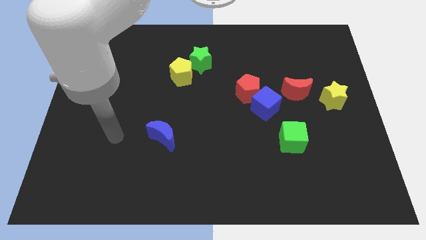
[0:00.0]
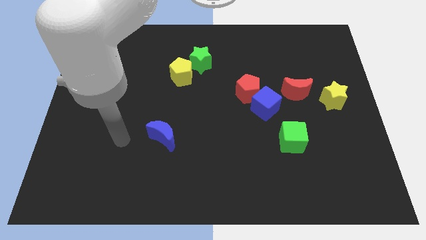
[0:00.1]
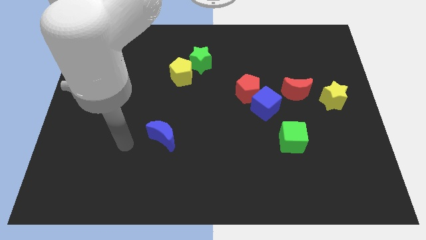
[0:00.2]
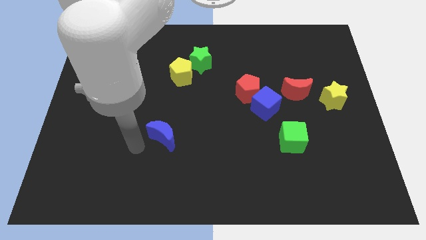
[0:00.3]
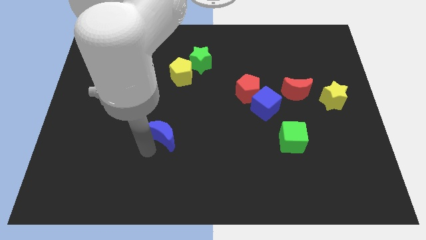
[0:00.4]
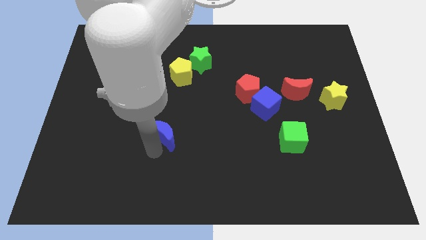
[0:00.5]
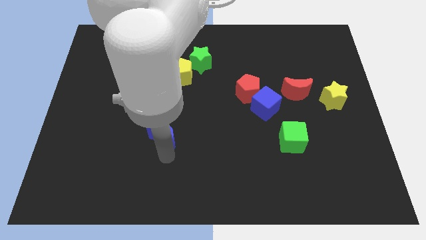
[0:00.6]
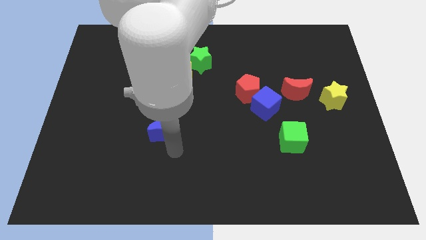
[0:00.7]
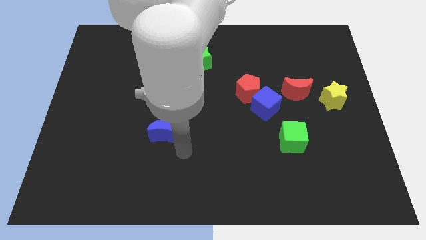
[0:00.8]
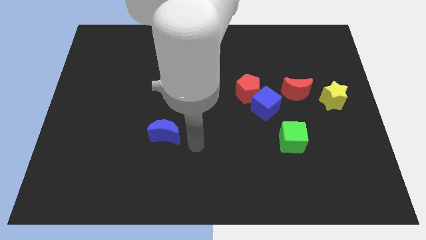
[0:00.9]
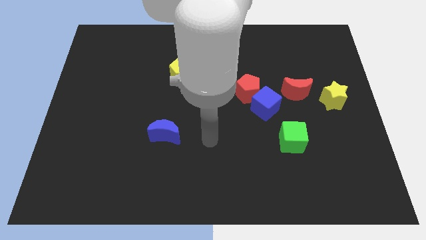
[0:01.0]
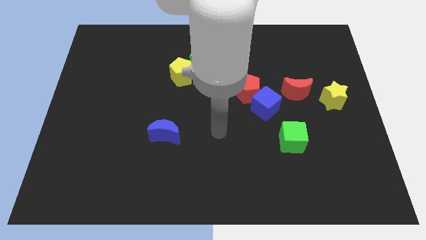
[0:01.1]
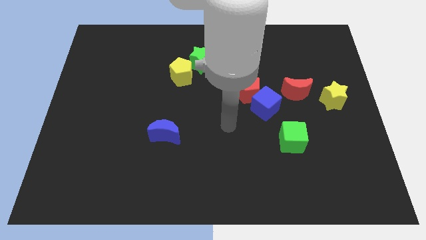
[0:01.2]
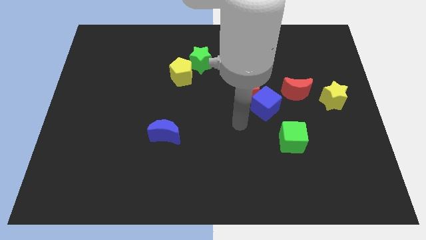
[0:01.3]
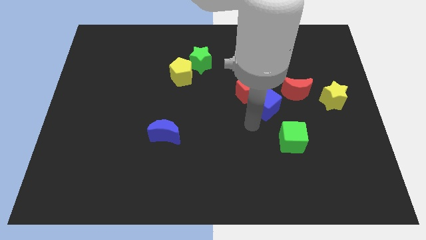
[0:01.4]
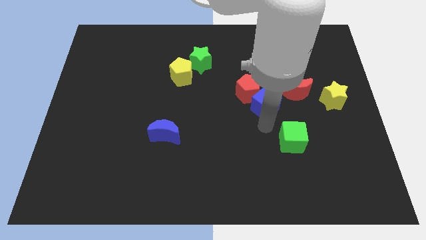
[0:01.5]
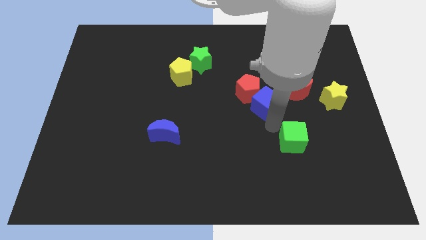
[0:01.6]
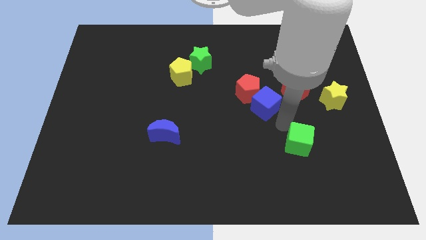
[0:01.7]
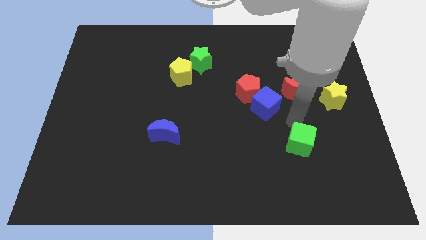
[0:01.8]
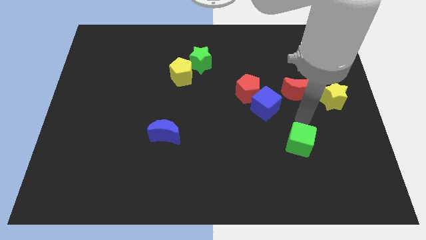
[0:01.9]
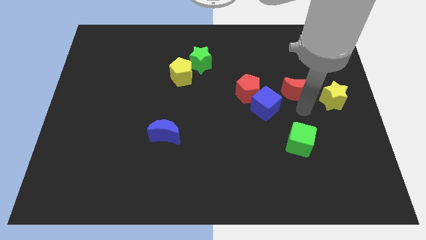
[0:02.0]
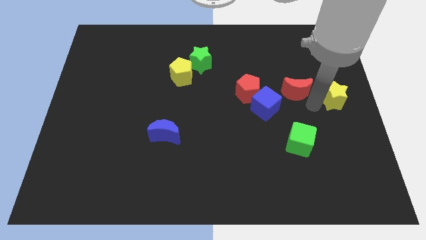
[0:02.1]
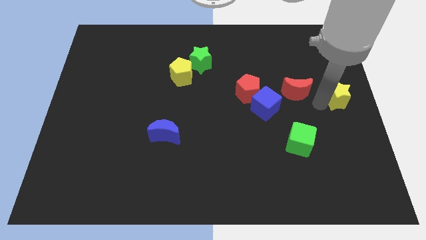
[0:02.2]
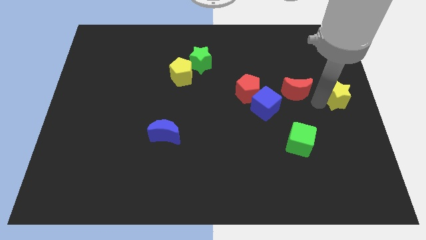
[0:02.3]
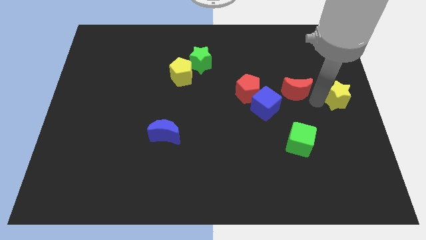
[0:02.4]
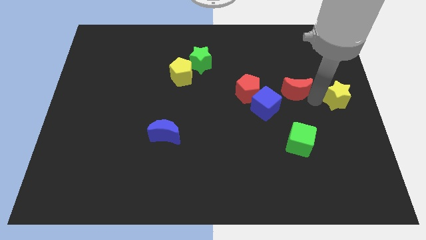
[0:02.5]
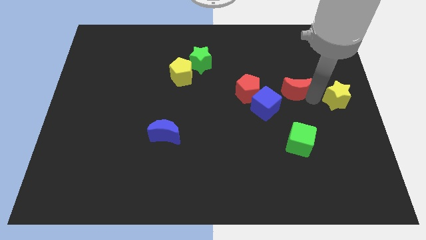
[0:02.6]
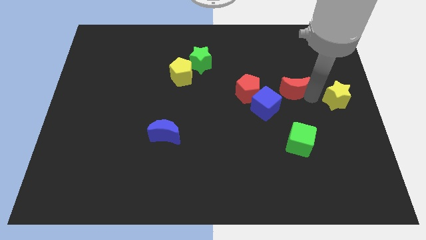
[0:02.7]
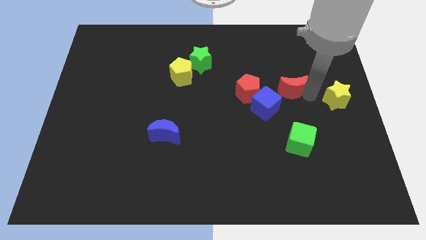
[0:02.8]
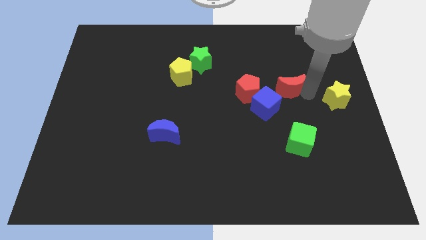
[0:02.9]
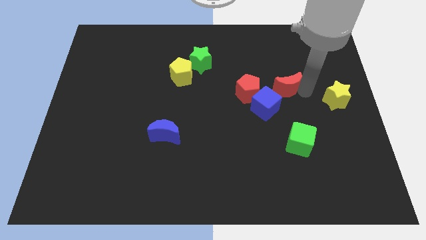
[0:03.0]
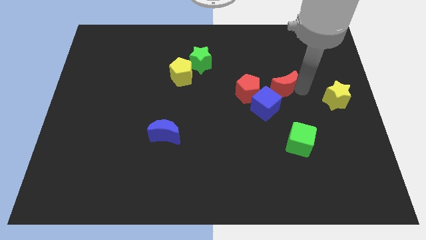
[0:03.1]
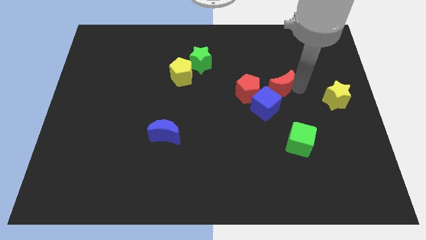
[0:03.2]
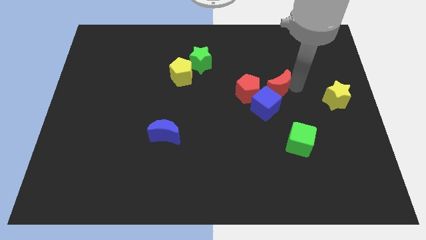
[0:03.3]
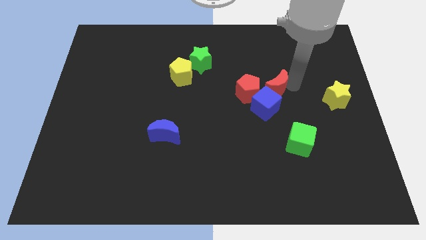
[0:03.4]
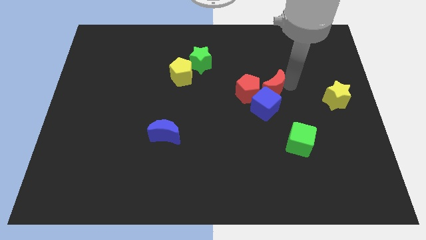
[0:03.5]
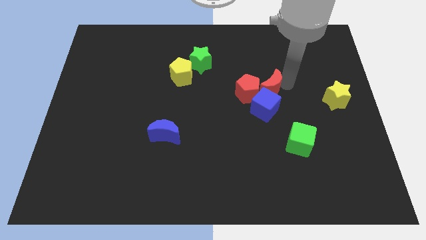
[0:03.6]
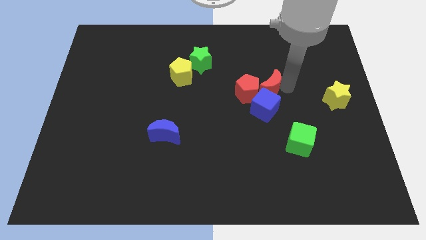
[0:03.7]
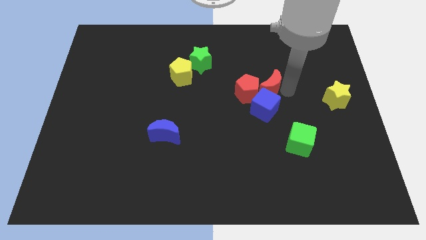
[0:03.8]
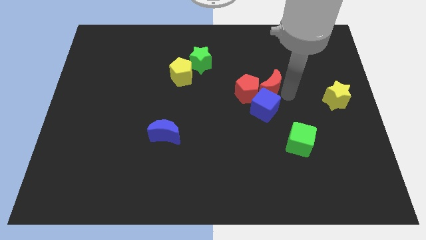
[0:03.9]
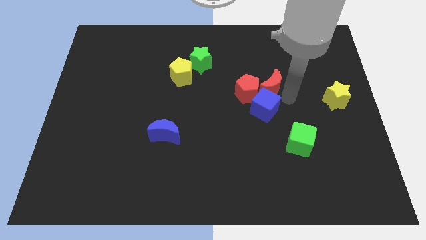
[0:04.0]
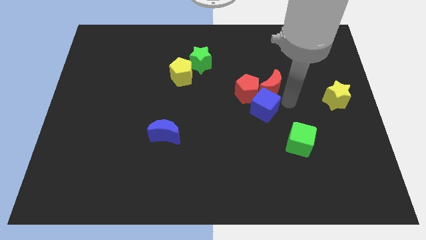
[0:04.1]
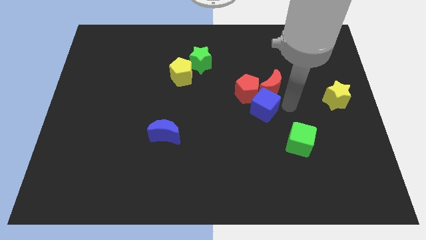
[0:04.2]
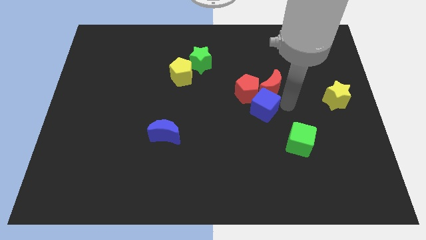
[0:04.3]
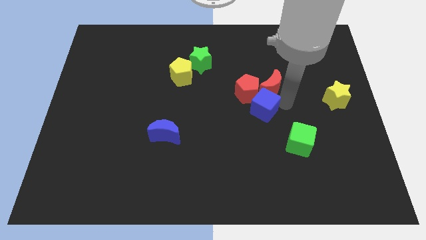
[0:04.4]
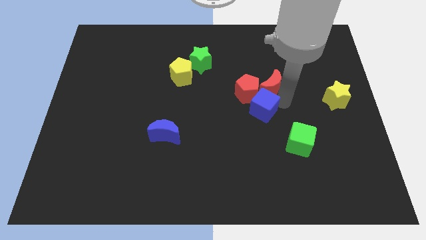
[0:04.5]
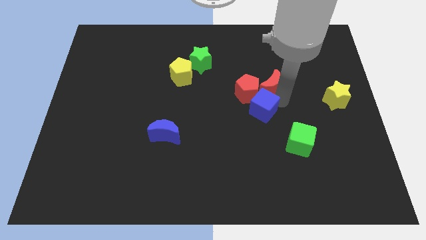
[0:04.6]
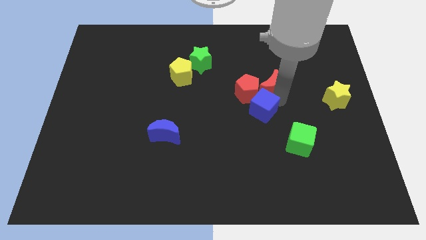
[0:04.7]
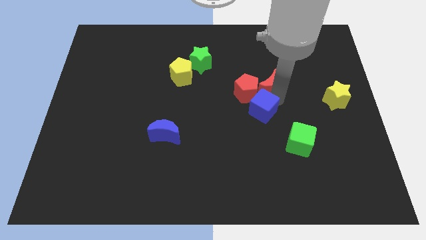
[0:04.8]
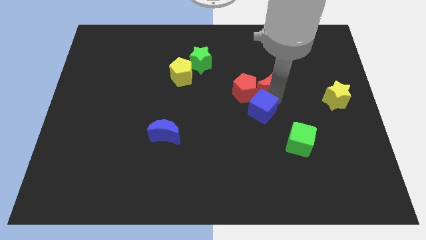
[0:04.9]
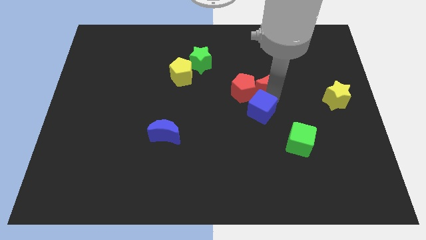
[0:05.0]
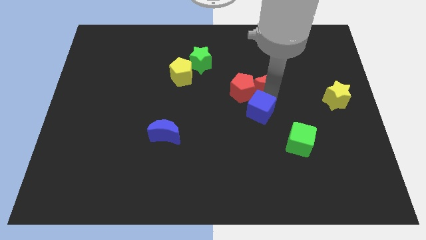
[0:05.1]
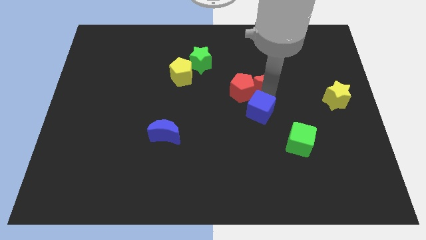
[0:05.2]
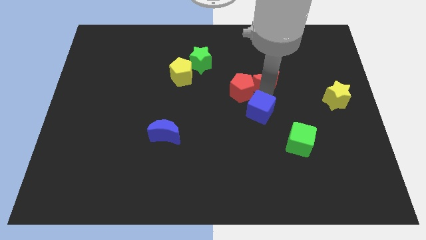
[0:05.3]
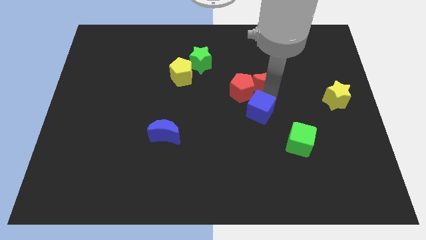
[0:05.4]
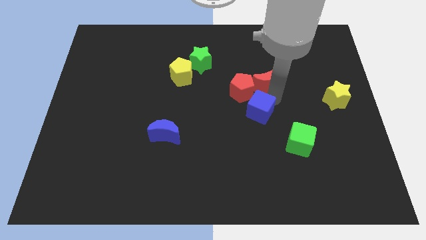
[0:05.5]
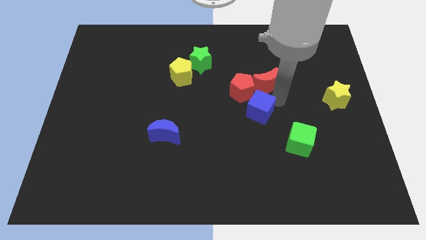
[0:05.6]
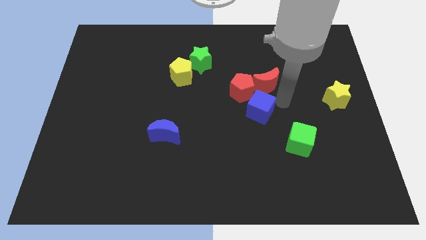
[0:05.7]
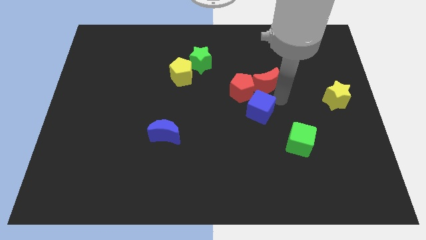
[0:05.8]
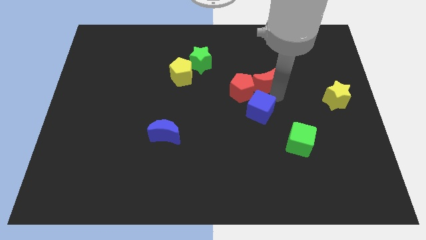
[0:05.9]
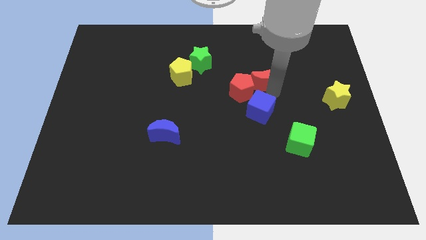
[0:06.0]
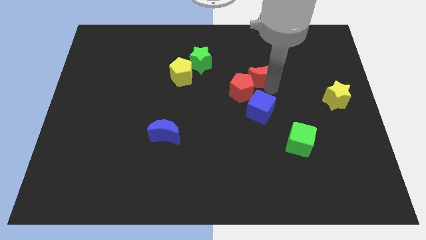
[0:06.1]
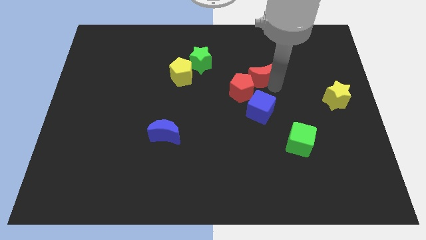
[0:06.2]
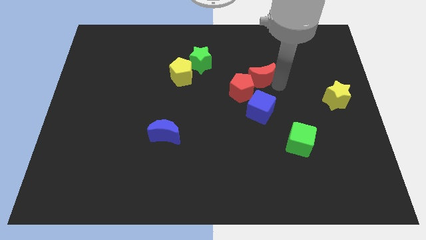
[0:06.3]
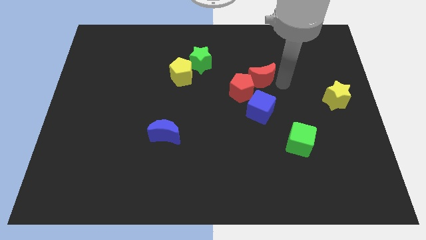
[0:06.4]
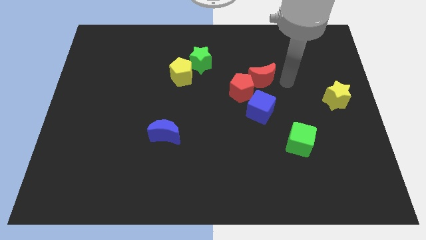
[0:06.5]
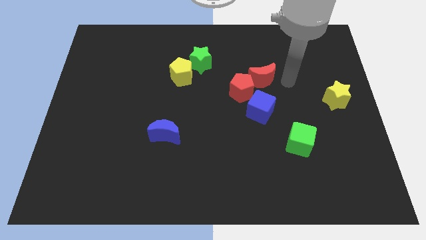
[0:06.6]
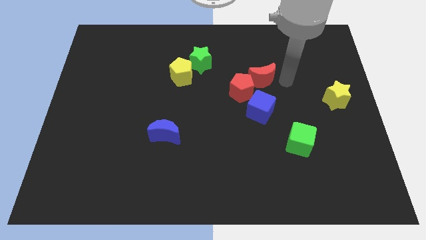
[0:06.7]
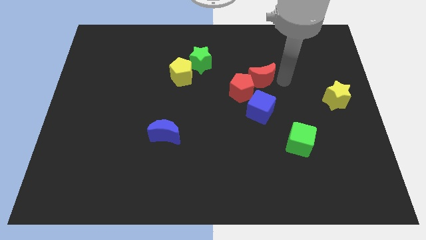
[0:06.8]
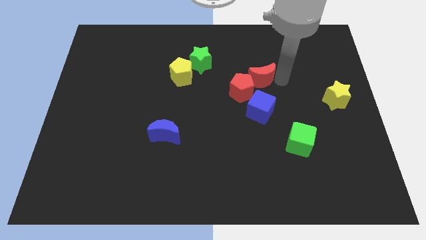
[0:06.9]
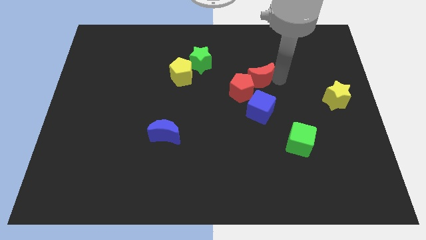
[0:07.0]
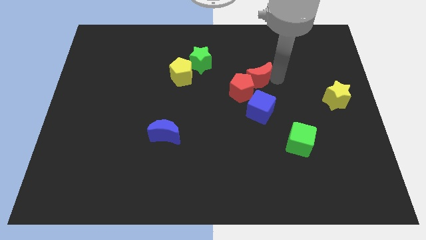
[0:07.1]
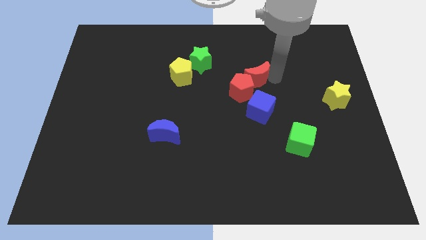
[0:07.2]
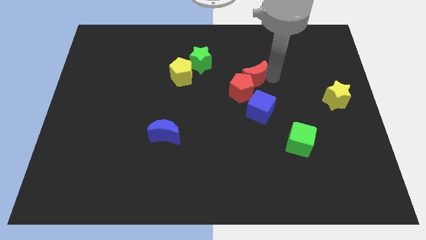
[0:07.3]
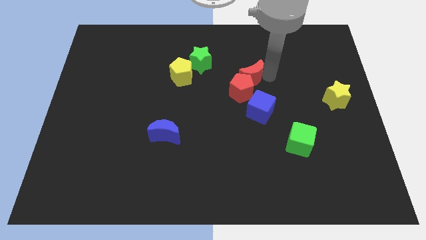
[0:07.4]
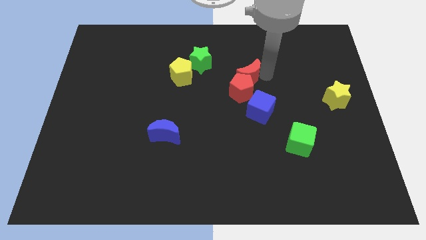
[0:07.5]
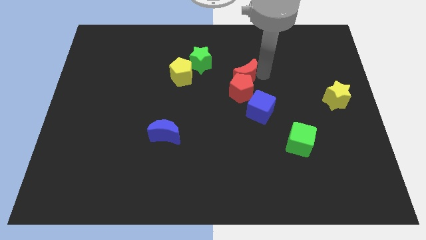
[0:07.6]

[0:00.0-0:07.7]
move the red moon to the right side of the yellow pentagon
